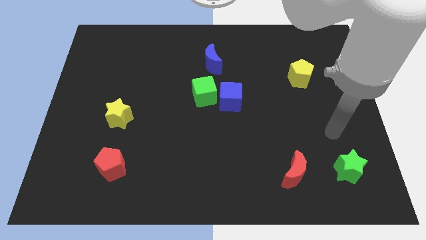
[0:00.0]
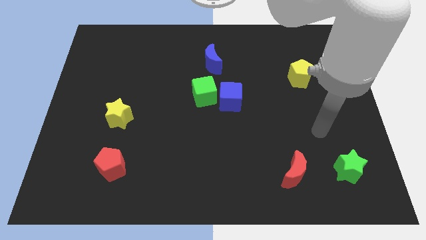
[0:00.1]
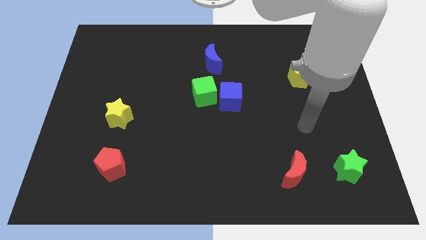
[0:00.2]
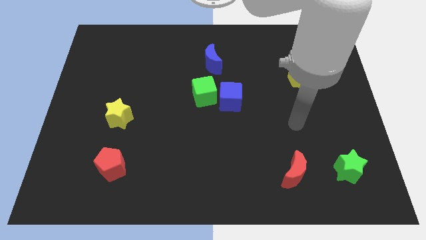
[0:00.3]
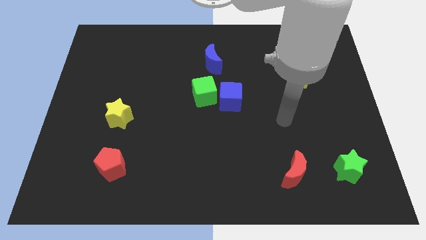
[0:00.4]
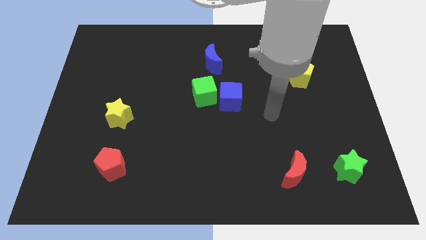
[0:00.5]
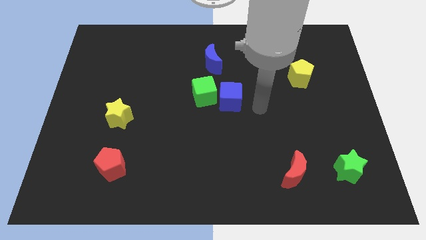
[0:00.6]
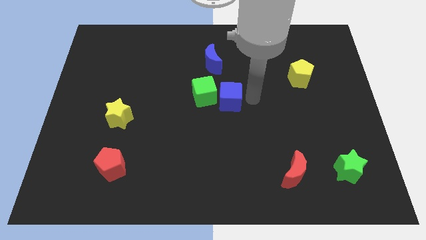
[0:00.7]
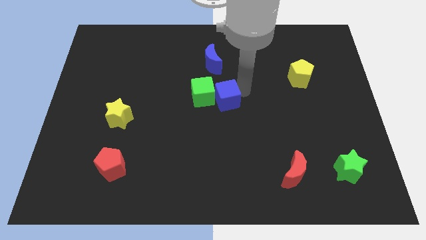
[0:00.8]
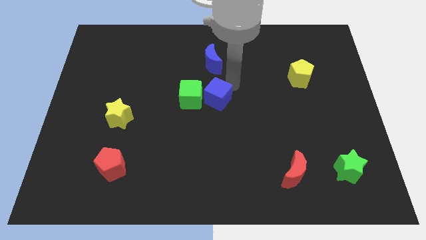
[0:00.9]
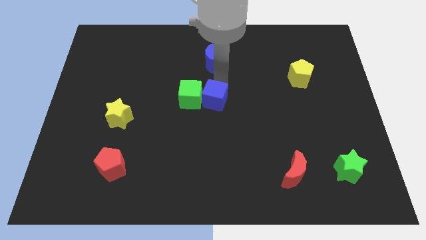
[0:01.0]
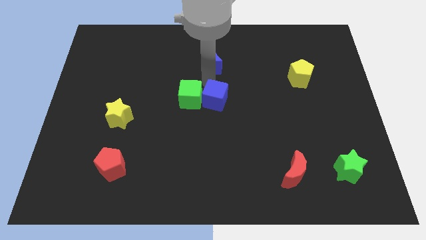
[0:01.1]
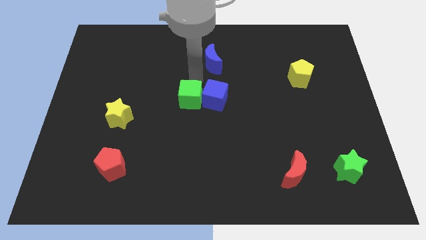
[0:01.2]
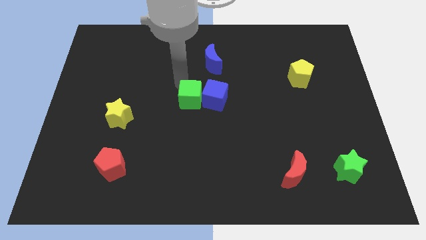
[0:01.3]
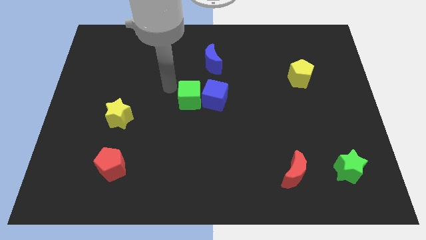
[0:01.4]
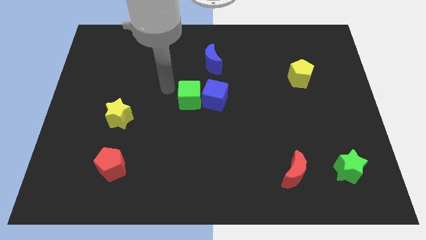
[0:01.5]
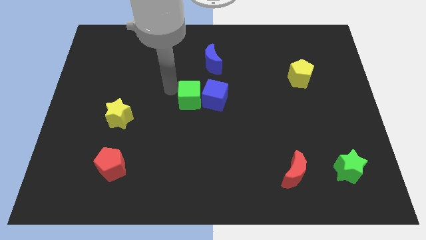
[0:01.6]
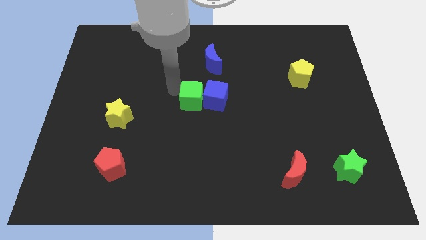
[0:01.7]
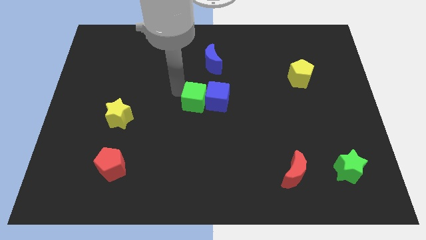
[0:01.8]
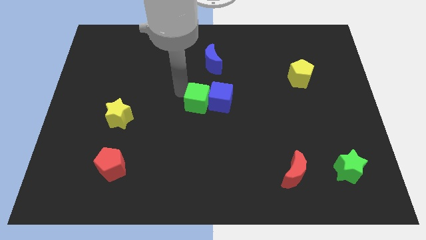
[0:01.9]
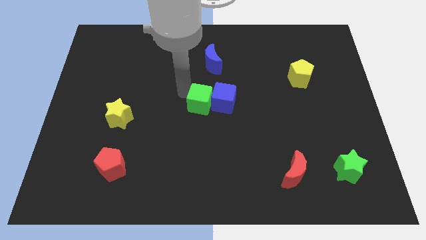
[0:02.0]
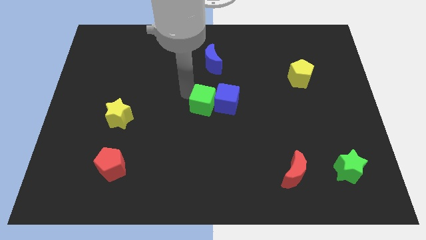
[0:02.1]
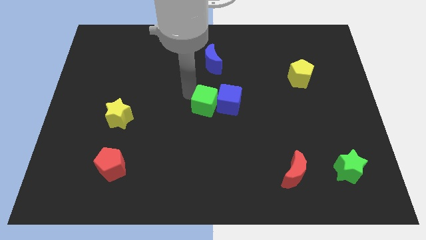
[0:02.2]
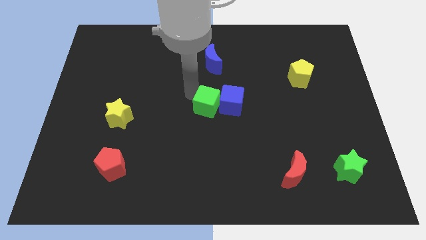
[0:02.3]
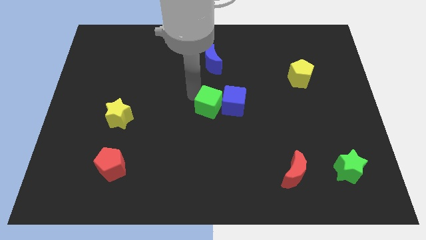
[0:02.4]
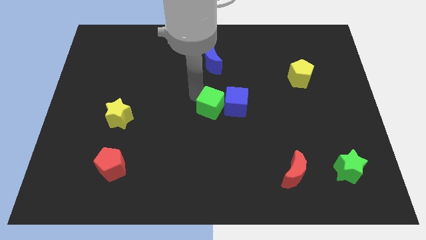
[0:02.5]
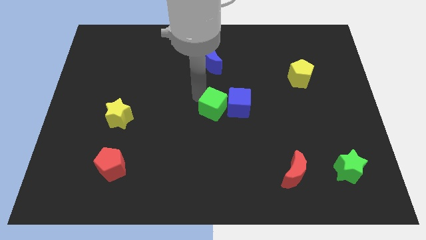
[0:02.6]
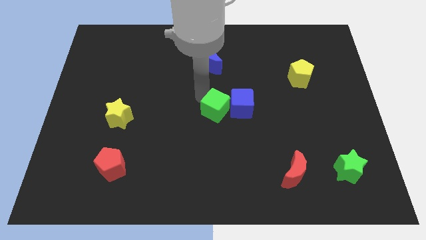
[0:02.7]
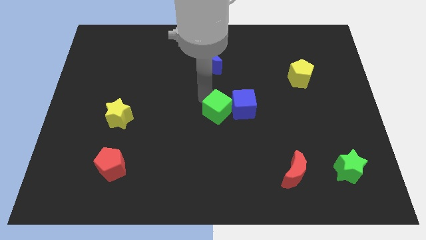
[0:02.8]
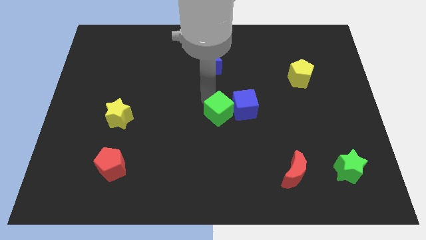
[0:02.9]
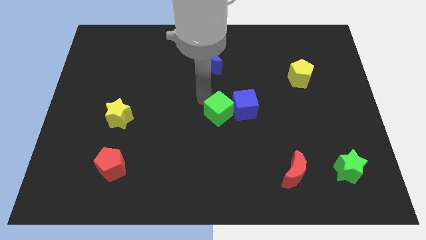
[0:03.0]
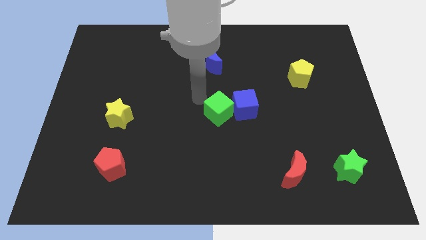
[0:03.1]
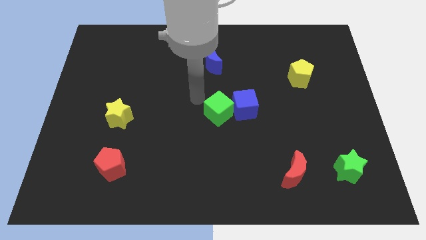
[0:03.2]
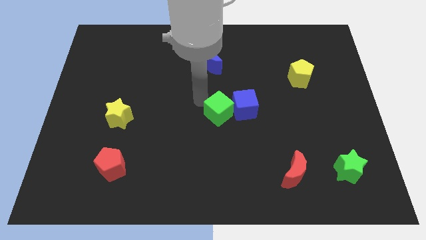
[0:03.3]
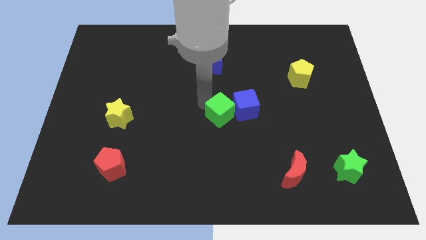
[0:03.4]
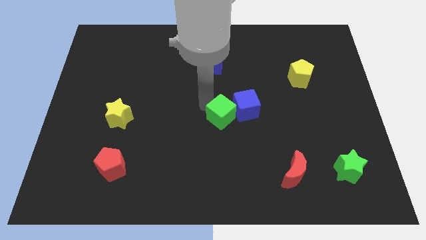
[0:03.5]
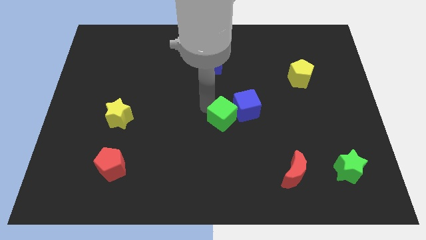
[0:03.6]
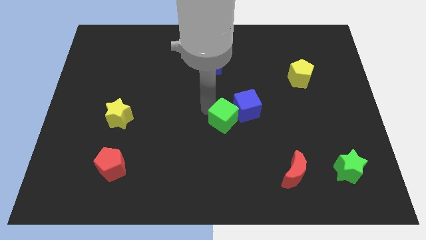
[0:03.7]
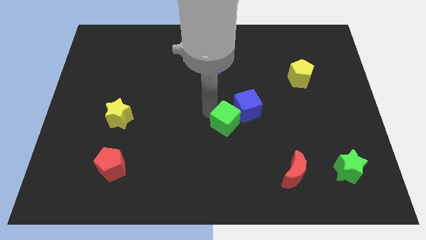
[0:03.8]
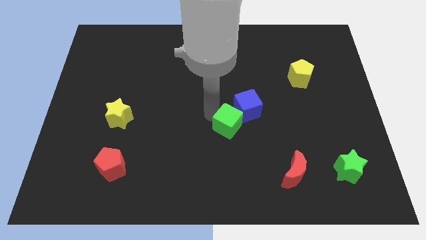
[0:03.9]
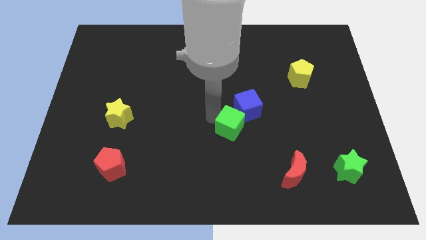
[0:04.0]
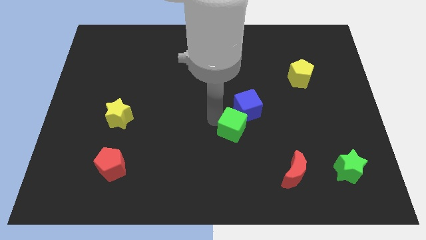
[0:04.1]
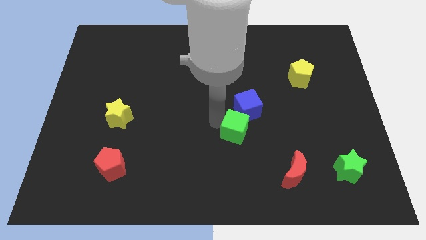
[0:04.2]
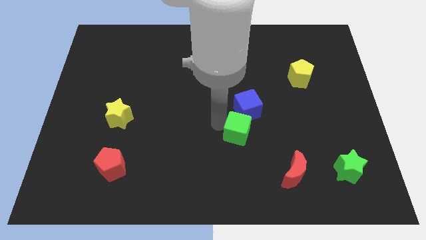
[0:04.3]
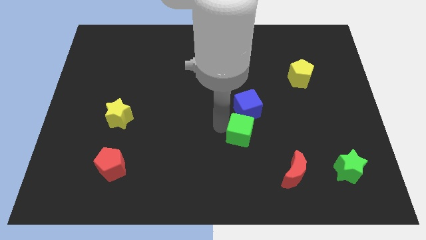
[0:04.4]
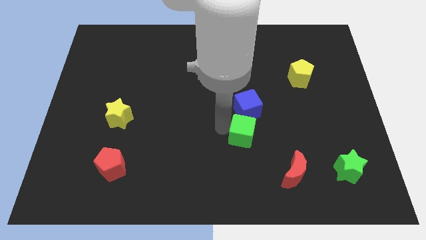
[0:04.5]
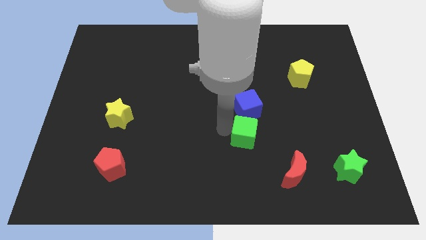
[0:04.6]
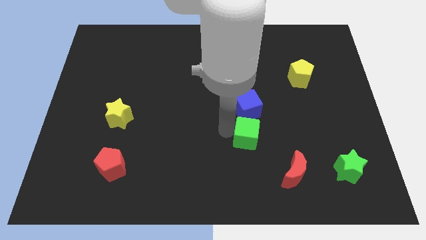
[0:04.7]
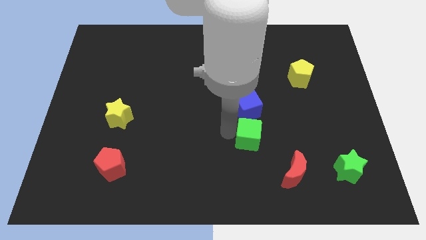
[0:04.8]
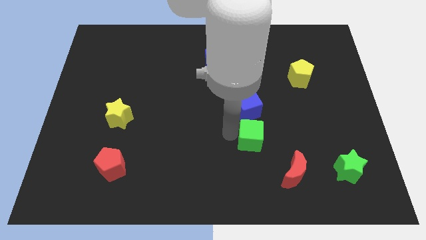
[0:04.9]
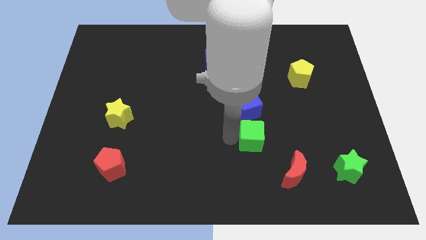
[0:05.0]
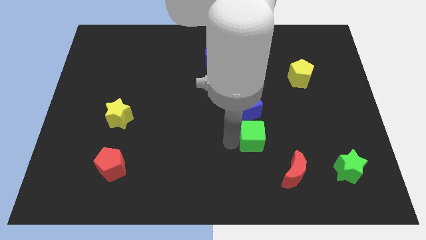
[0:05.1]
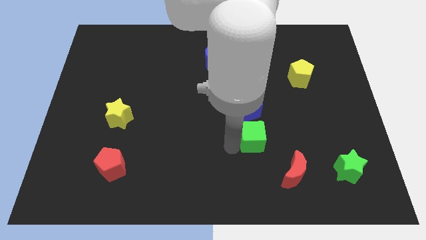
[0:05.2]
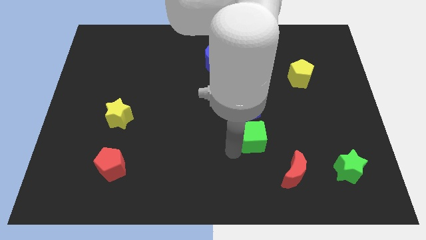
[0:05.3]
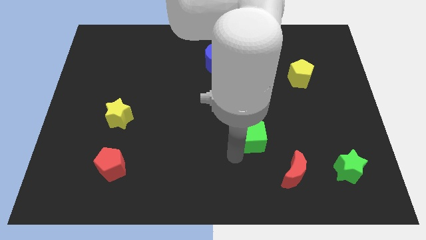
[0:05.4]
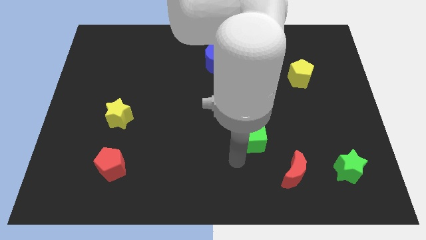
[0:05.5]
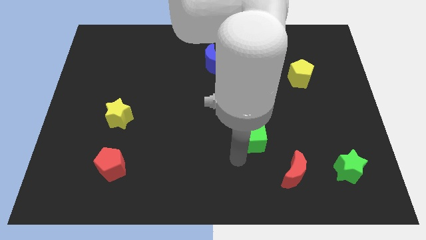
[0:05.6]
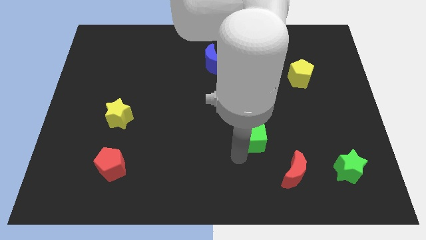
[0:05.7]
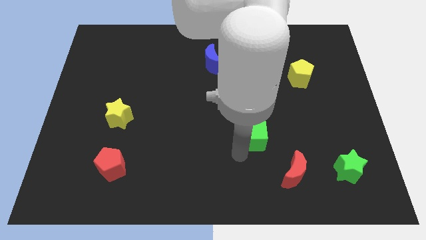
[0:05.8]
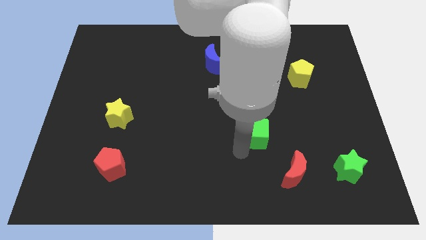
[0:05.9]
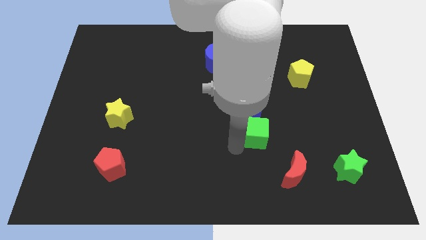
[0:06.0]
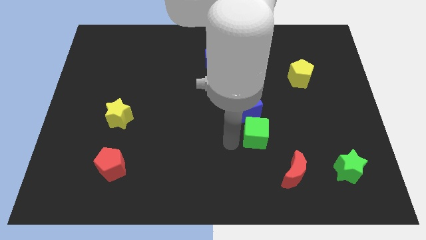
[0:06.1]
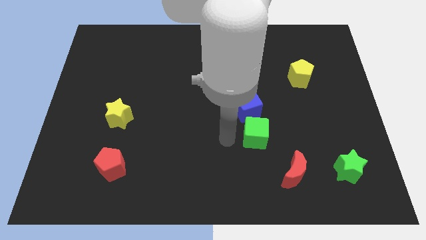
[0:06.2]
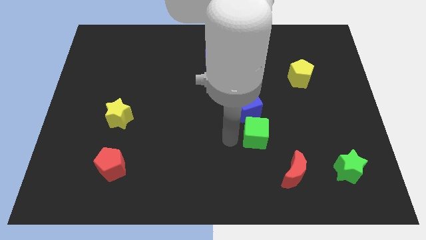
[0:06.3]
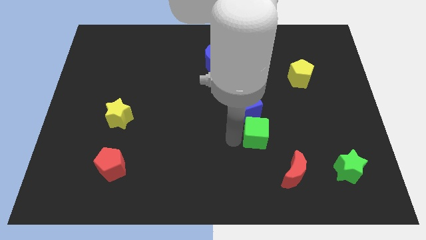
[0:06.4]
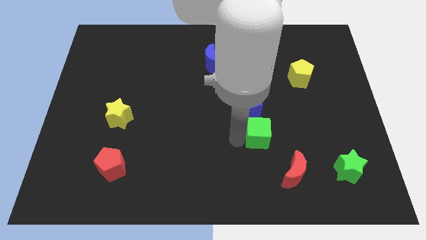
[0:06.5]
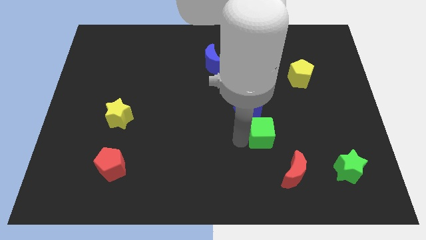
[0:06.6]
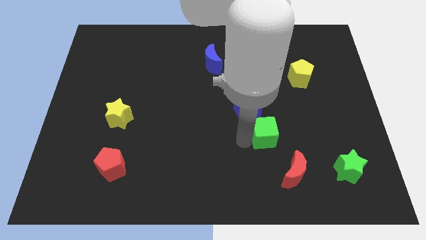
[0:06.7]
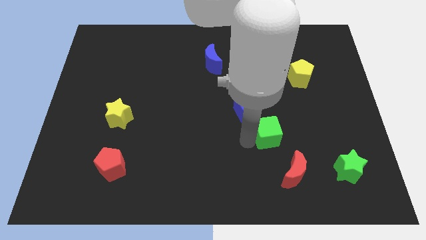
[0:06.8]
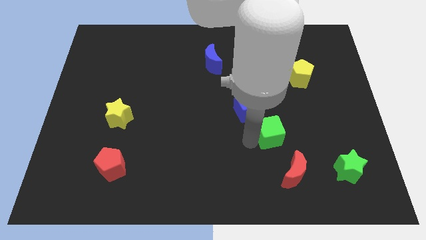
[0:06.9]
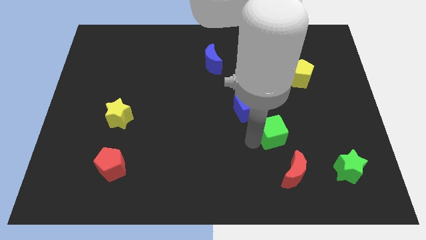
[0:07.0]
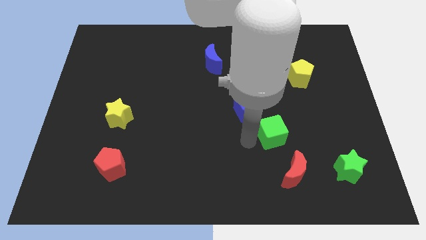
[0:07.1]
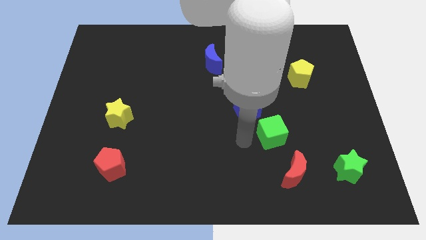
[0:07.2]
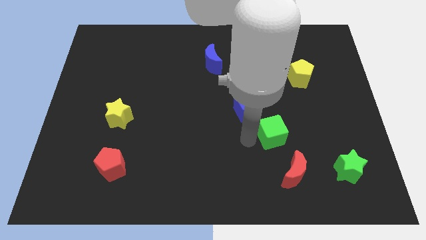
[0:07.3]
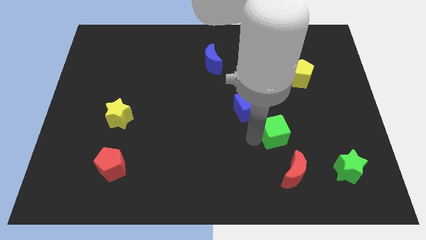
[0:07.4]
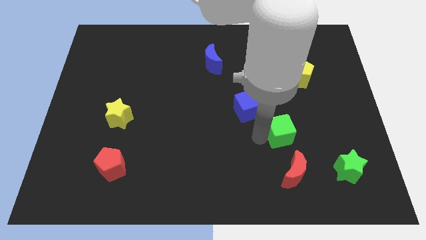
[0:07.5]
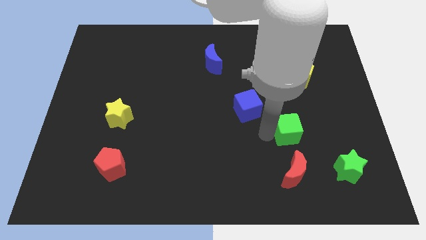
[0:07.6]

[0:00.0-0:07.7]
push the green cube diagonally down and right

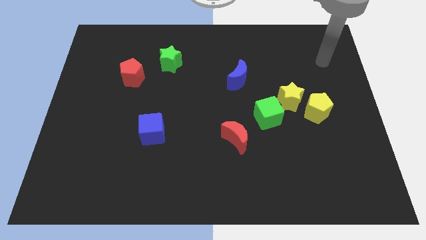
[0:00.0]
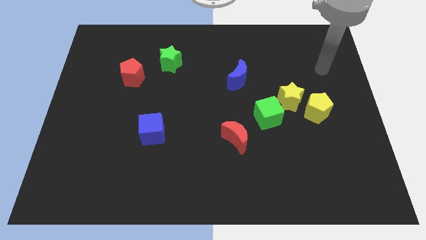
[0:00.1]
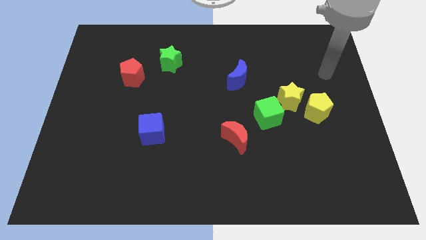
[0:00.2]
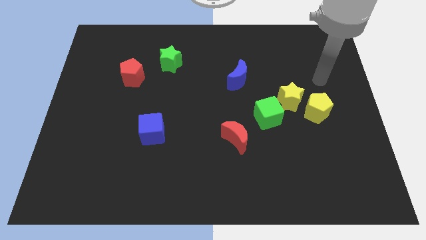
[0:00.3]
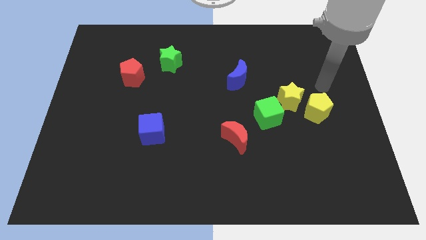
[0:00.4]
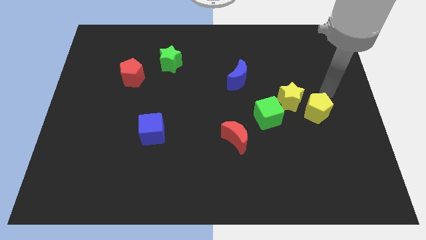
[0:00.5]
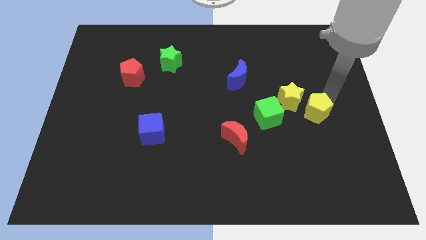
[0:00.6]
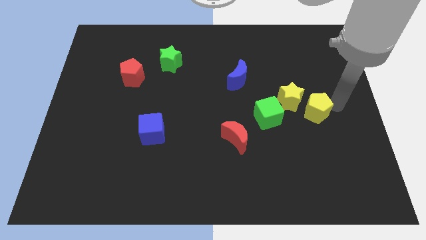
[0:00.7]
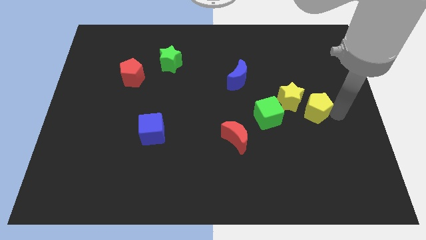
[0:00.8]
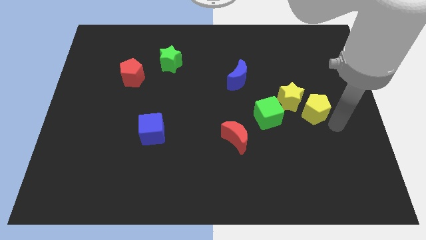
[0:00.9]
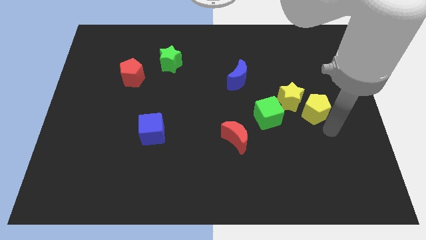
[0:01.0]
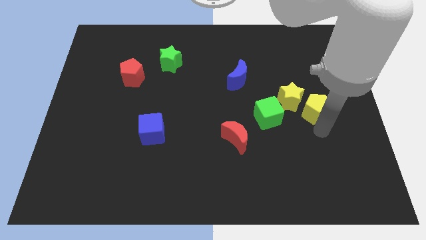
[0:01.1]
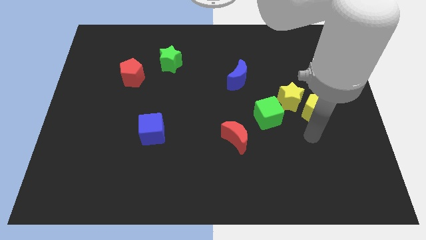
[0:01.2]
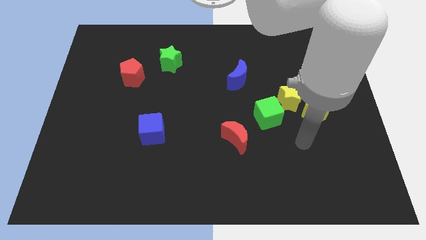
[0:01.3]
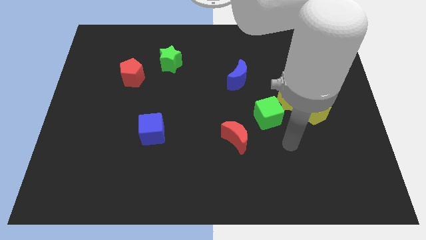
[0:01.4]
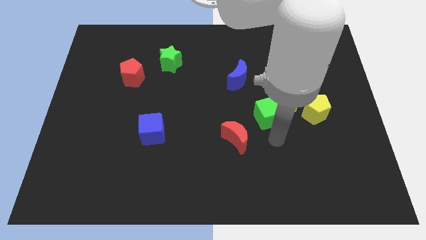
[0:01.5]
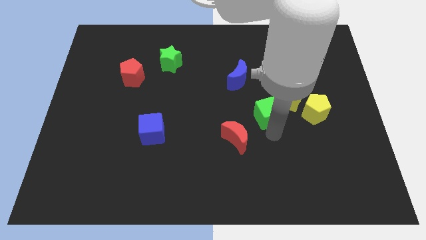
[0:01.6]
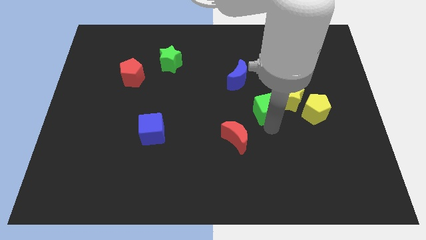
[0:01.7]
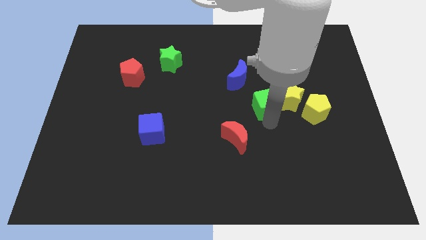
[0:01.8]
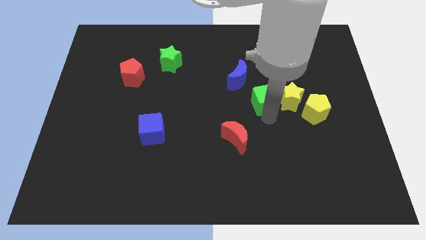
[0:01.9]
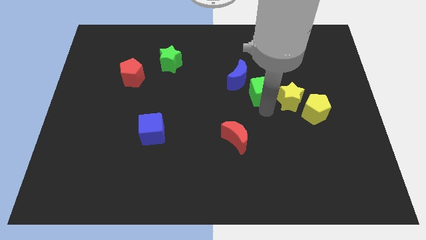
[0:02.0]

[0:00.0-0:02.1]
move the green cube up a bit
